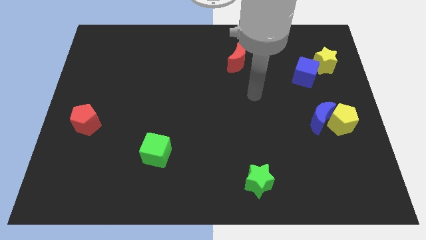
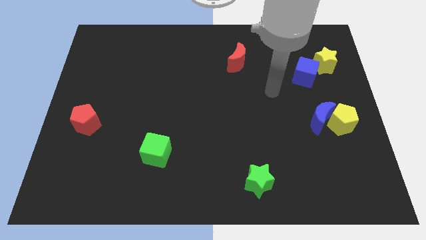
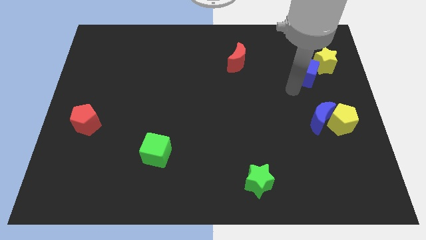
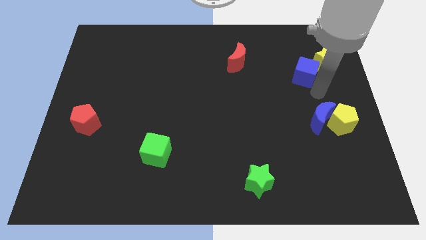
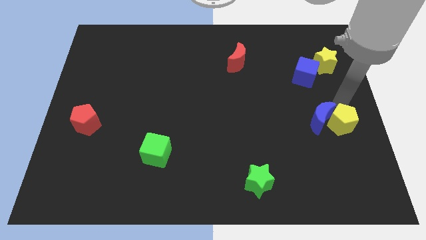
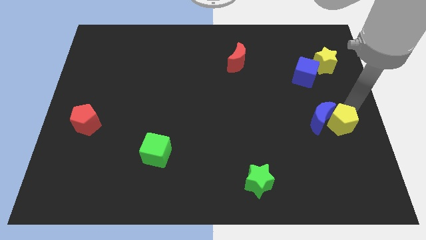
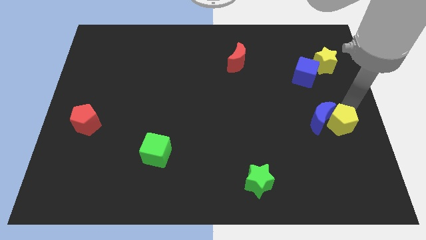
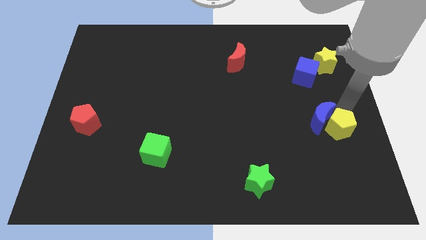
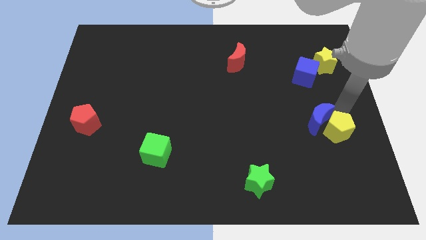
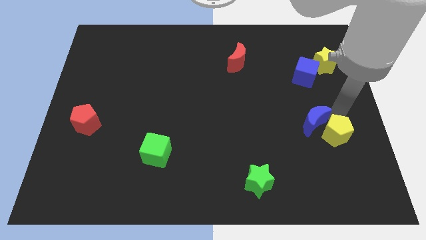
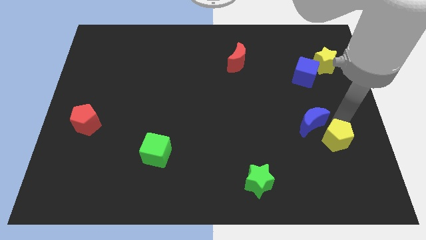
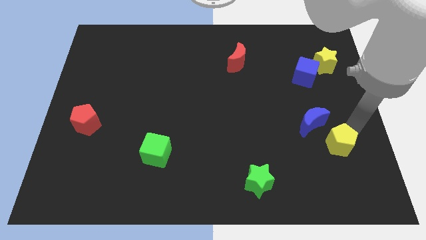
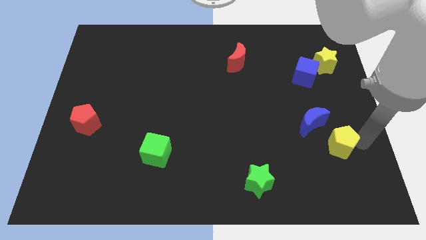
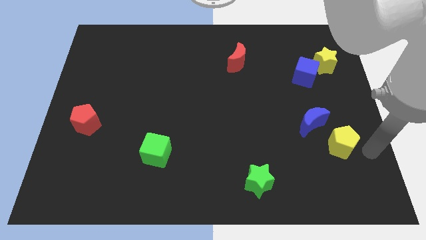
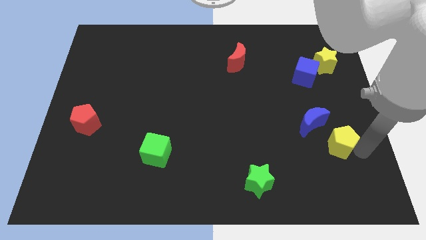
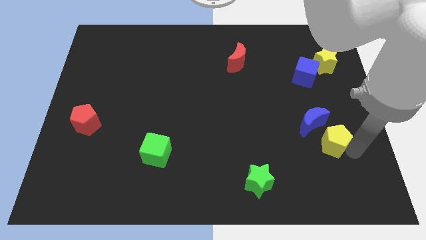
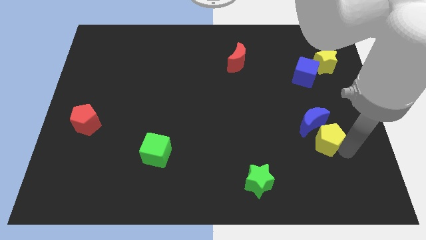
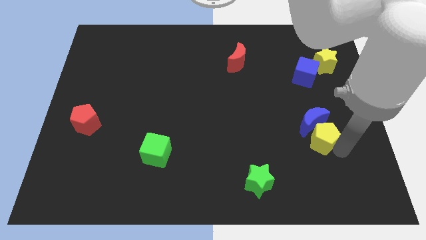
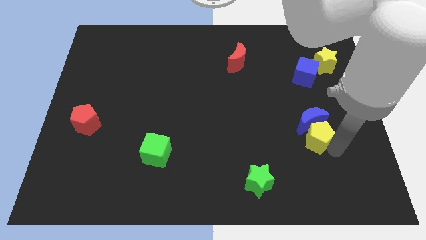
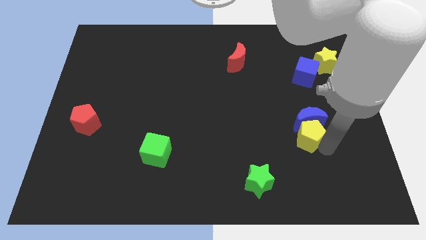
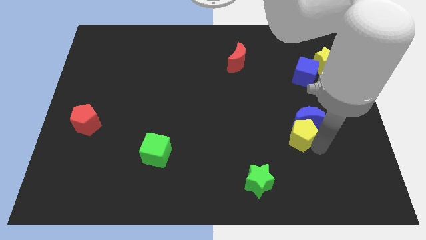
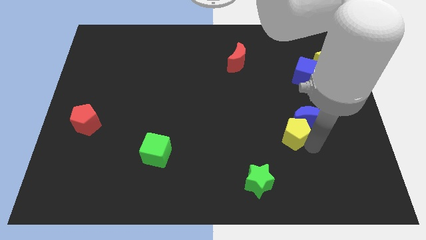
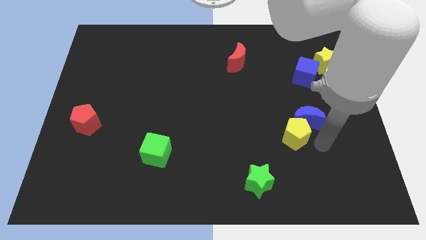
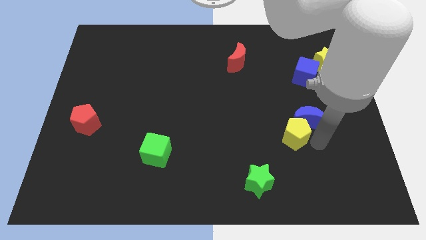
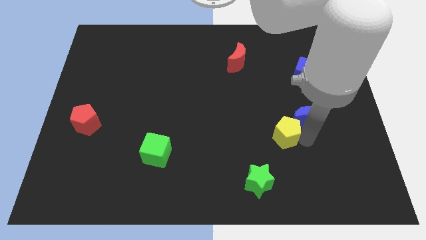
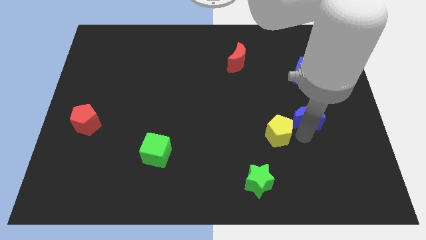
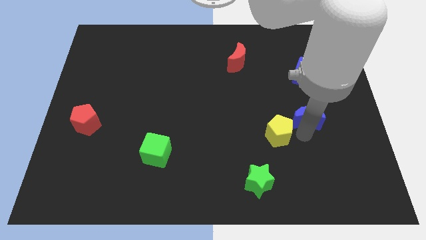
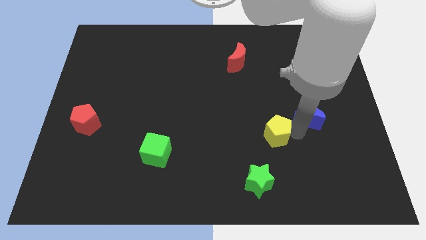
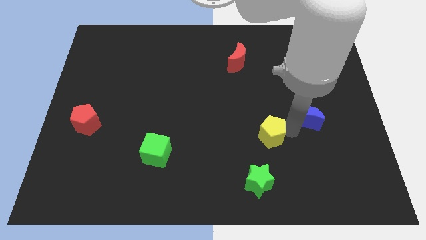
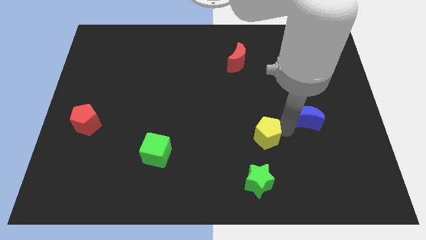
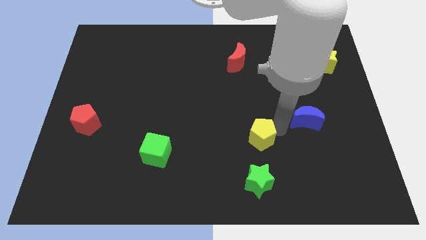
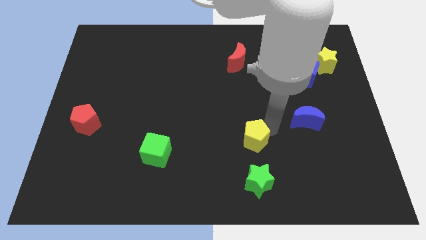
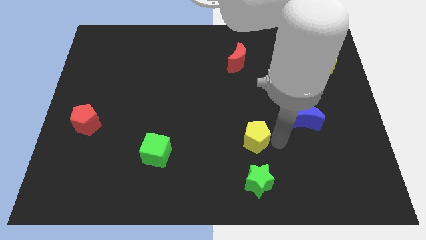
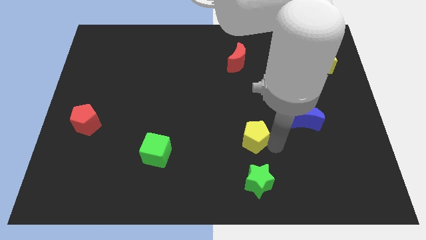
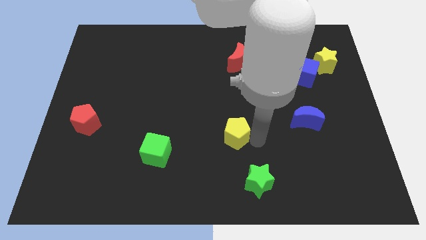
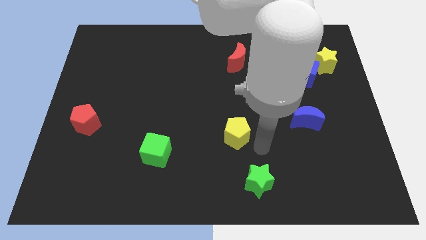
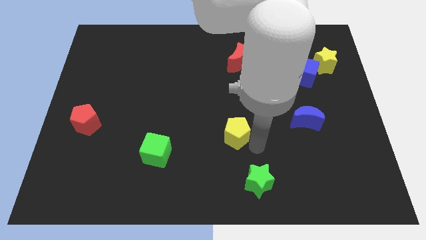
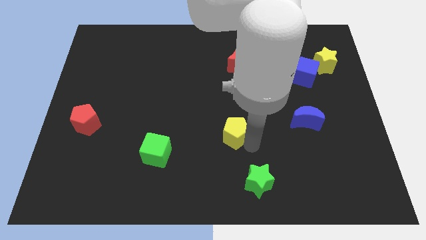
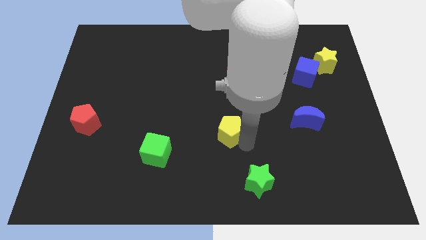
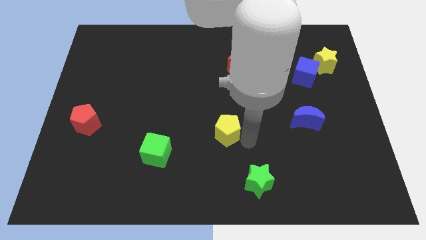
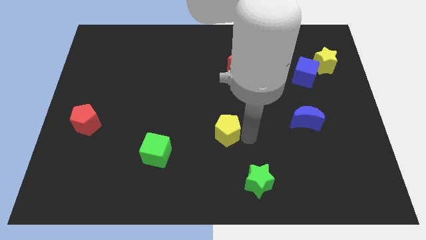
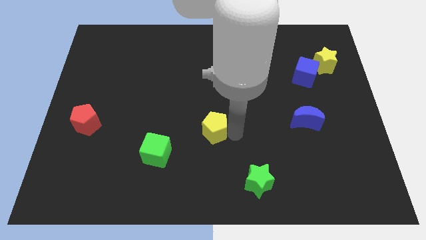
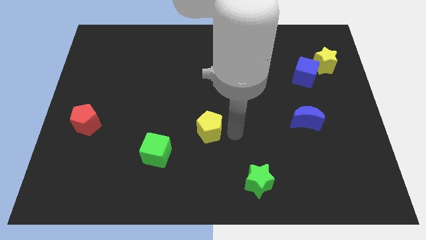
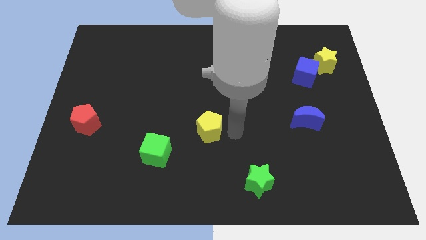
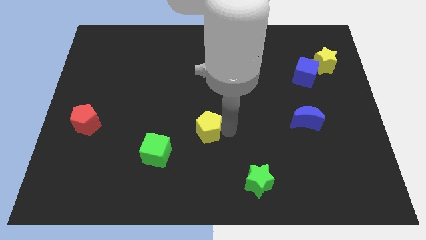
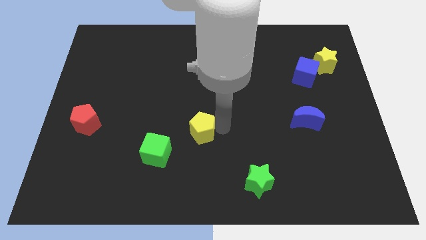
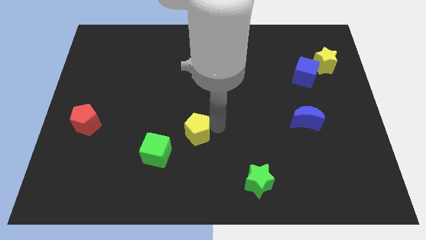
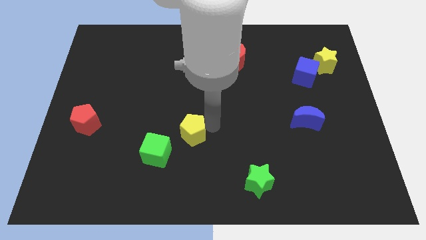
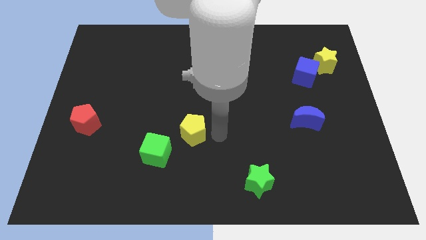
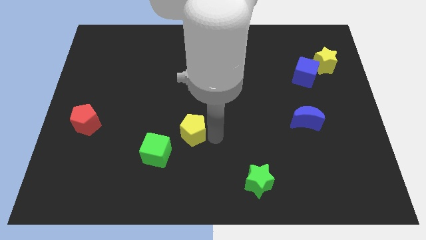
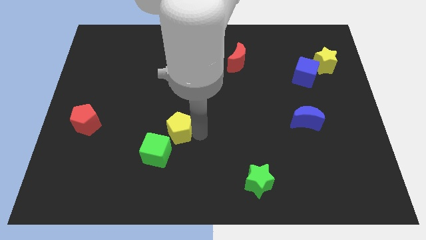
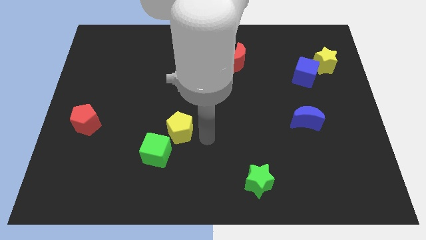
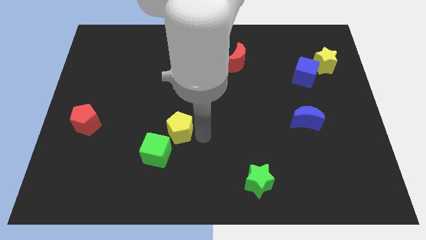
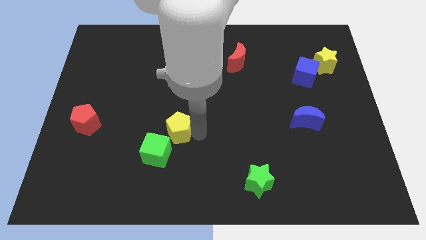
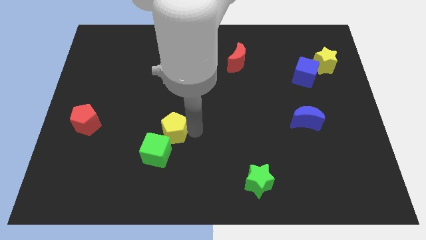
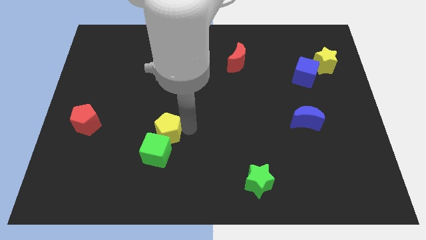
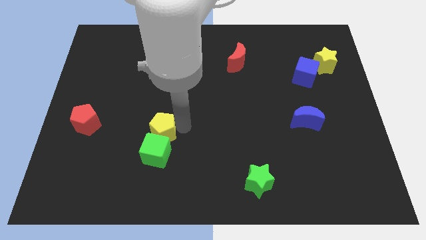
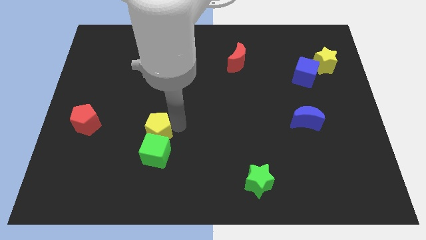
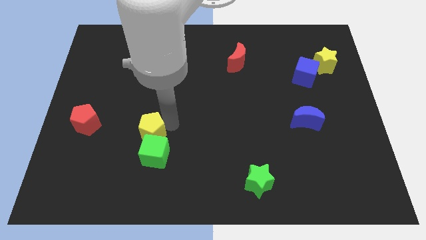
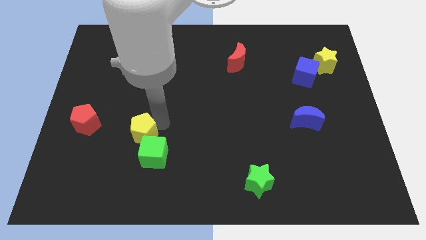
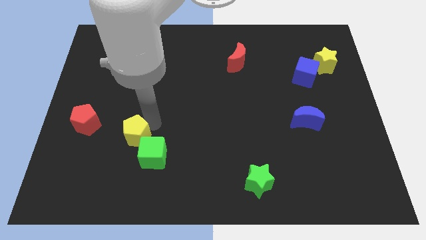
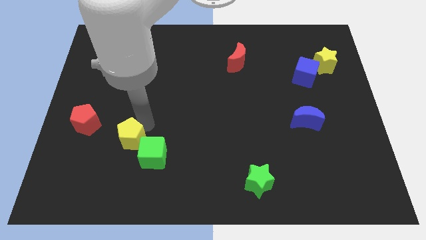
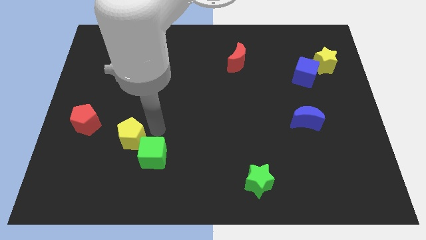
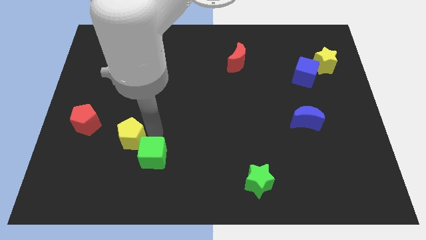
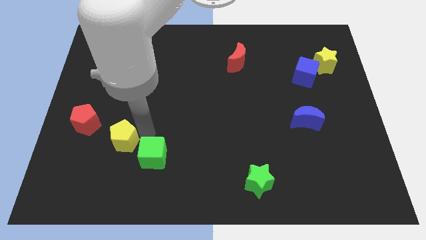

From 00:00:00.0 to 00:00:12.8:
move the yellow pentagon to the bottom right side of the red pentagon
